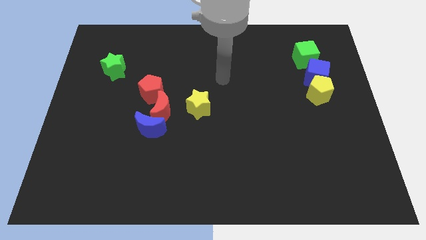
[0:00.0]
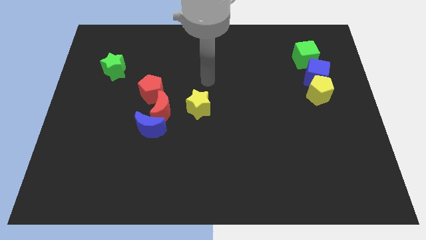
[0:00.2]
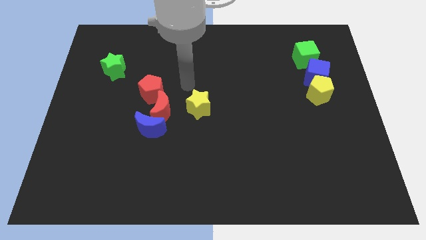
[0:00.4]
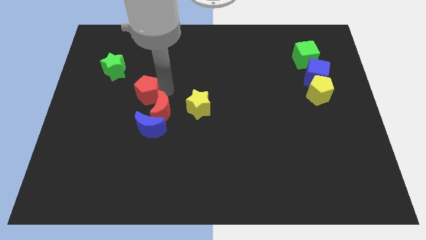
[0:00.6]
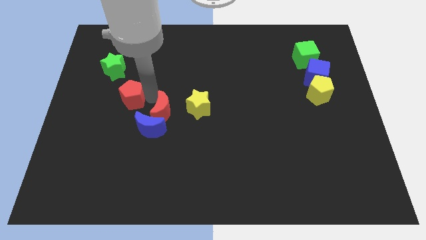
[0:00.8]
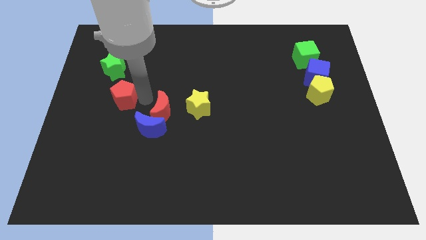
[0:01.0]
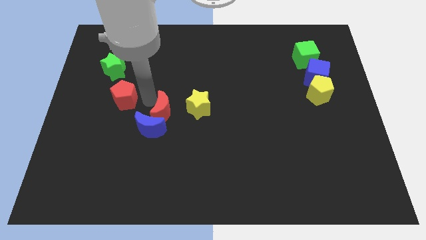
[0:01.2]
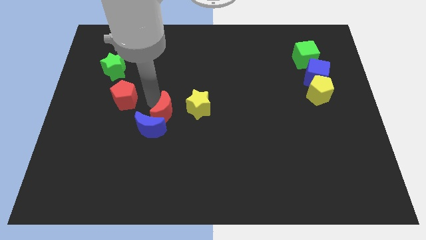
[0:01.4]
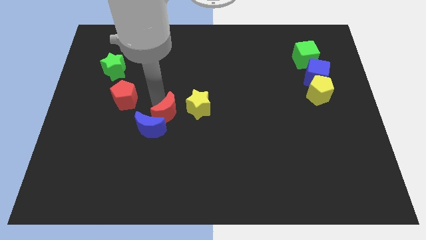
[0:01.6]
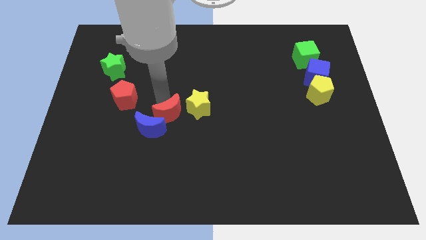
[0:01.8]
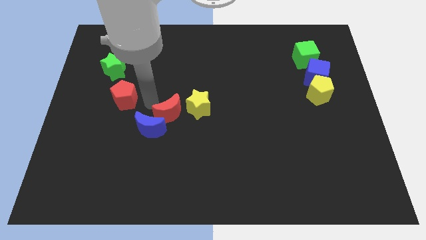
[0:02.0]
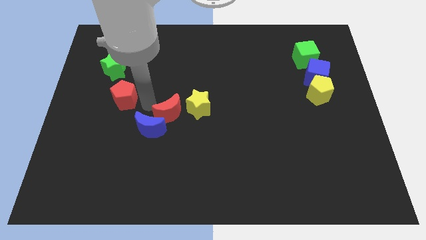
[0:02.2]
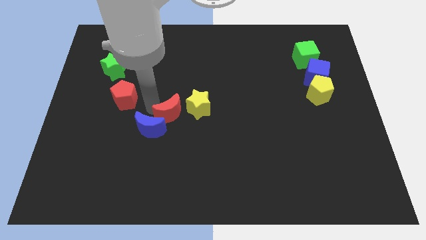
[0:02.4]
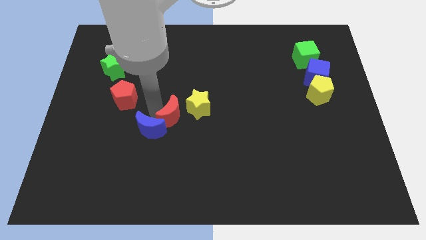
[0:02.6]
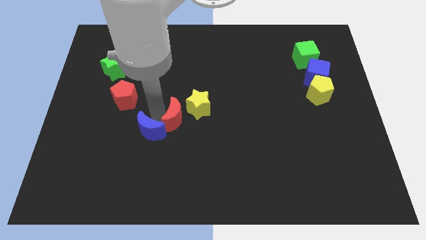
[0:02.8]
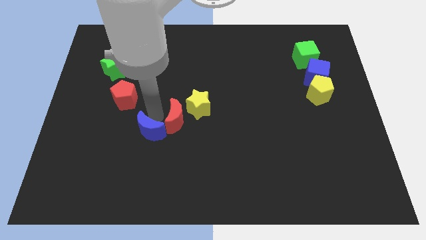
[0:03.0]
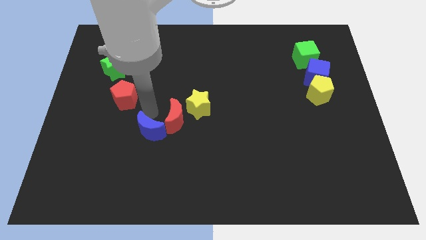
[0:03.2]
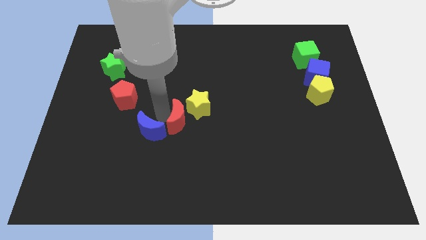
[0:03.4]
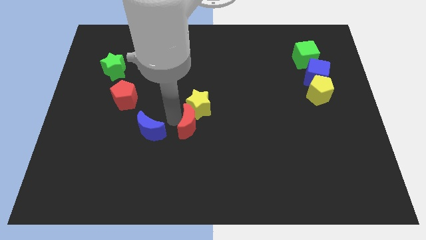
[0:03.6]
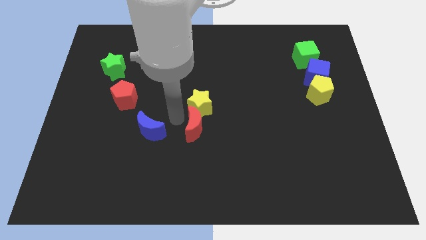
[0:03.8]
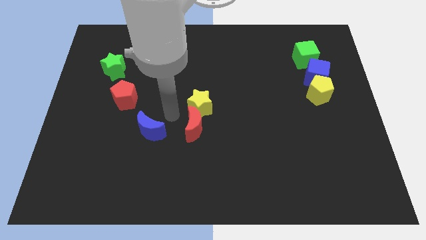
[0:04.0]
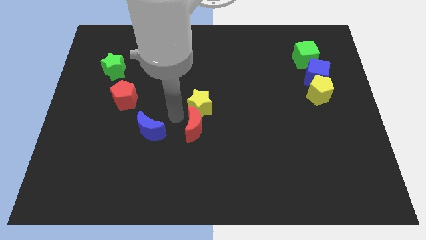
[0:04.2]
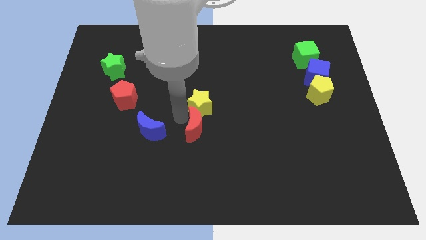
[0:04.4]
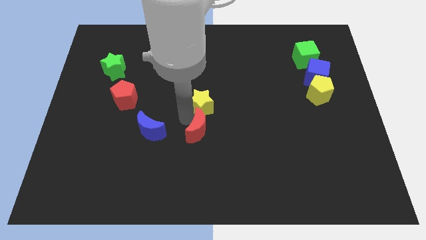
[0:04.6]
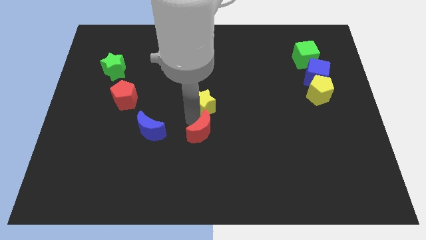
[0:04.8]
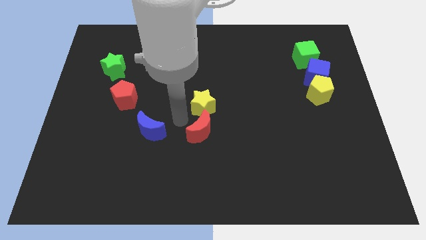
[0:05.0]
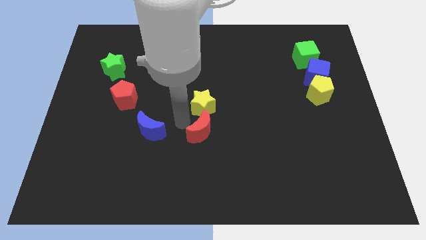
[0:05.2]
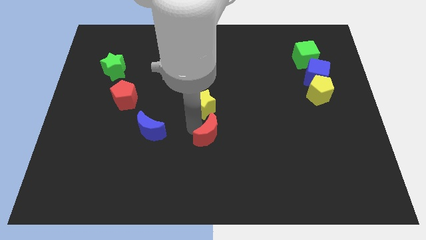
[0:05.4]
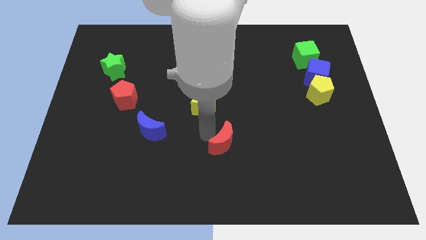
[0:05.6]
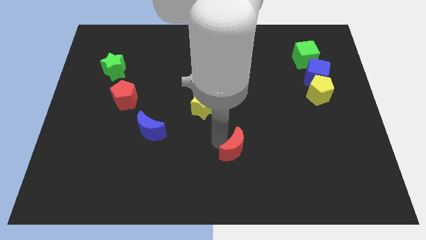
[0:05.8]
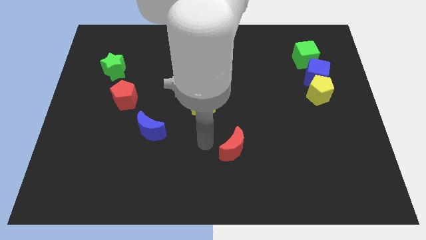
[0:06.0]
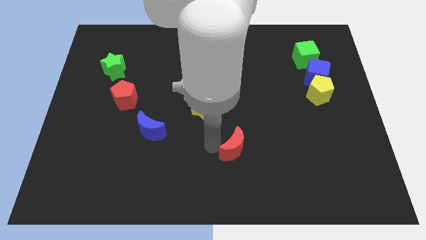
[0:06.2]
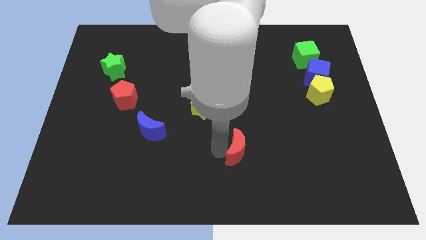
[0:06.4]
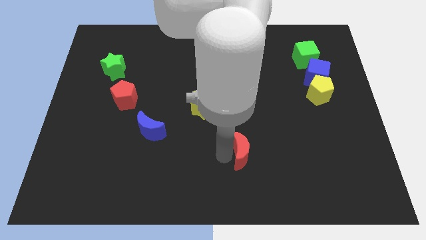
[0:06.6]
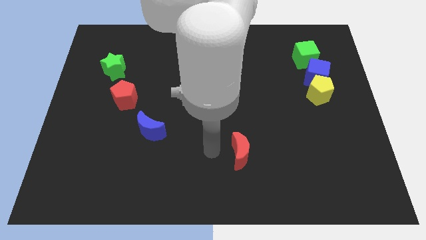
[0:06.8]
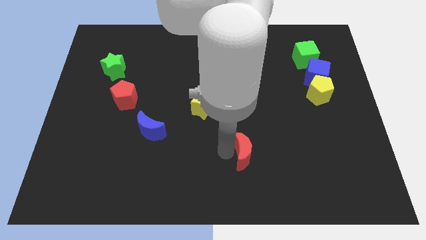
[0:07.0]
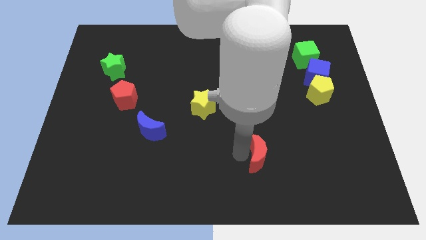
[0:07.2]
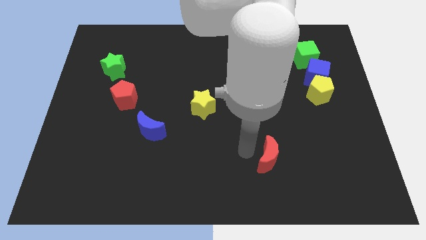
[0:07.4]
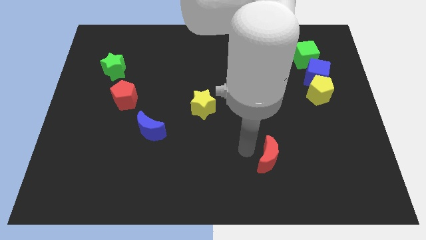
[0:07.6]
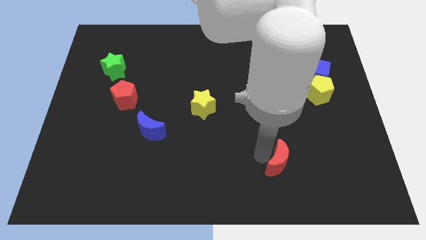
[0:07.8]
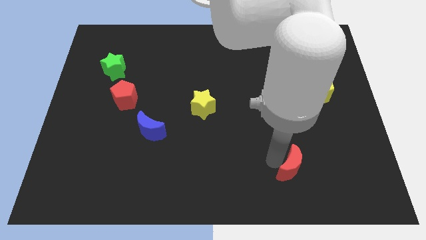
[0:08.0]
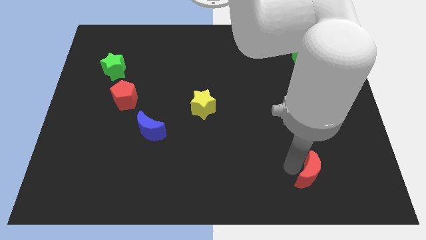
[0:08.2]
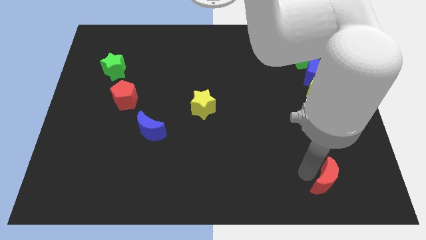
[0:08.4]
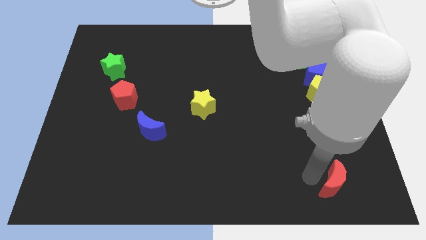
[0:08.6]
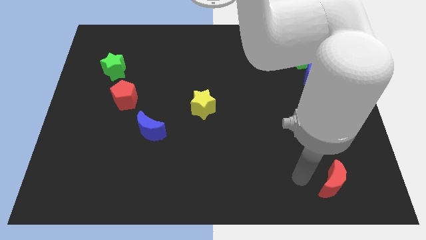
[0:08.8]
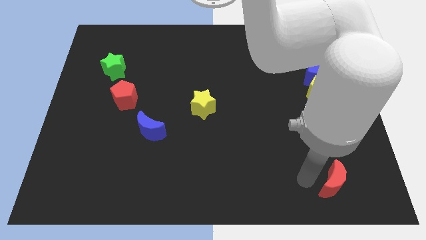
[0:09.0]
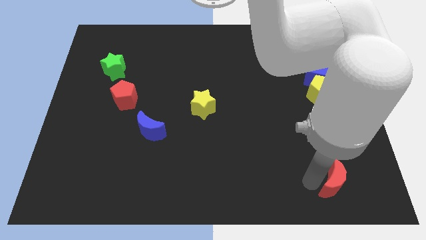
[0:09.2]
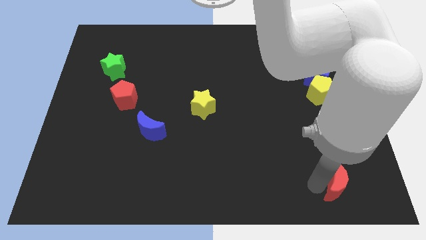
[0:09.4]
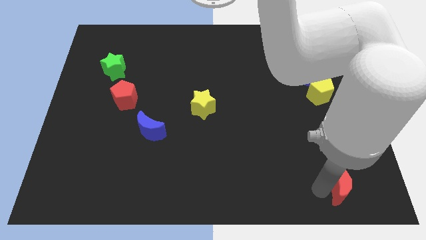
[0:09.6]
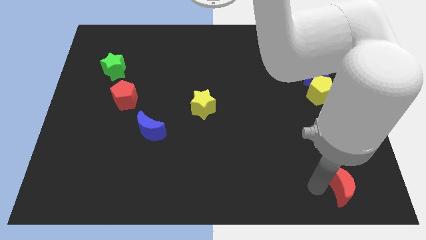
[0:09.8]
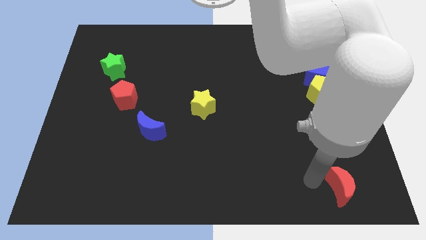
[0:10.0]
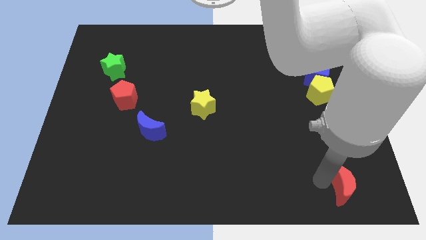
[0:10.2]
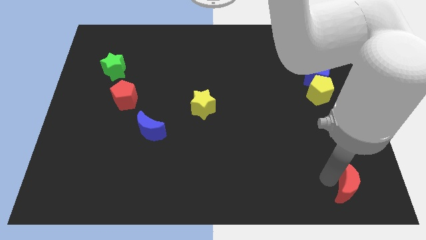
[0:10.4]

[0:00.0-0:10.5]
push the red moon to the bottom right of the board

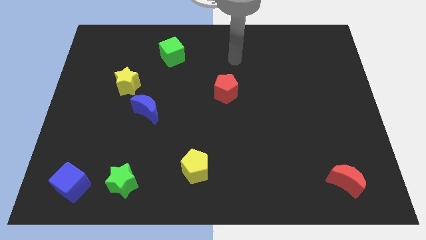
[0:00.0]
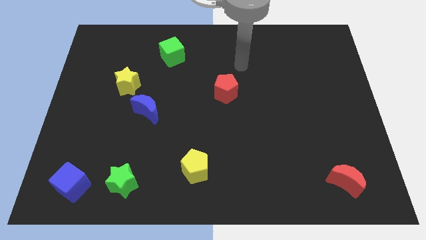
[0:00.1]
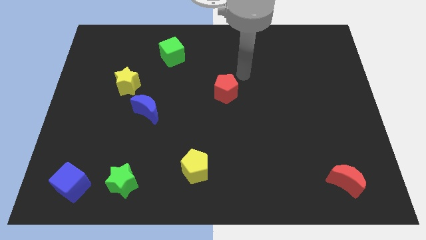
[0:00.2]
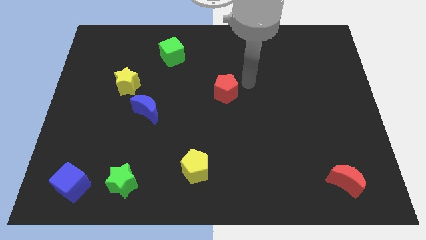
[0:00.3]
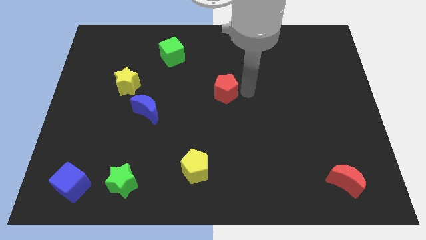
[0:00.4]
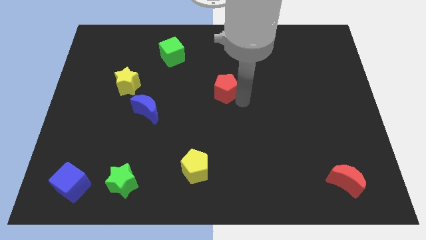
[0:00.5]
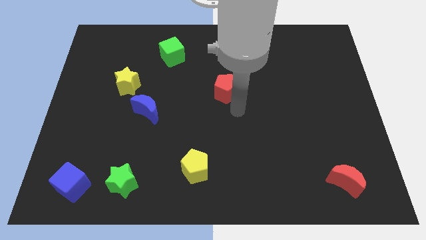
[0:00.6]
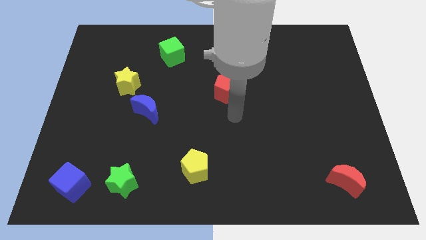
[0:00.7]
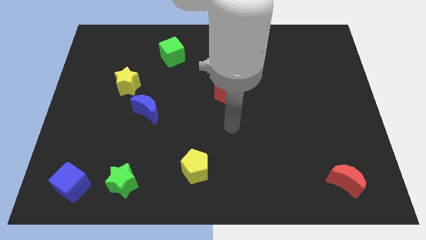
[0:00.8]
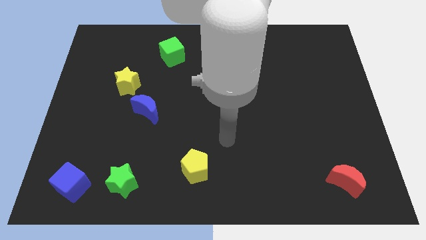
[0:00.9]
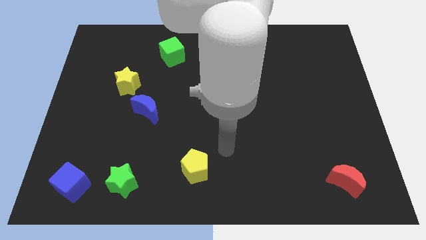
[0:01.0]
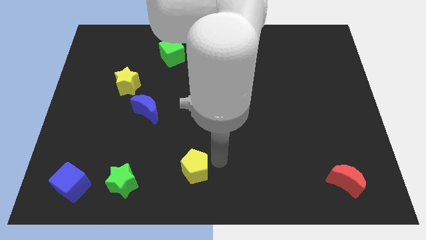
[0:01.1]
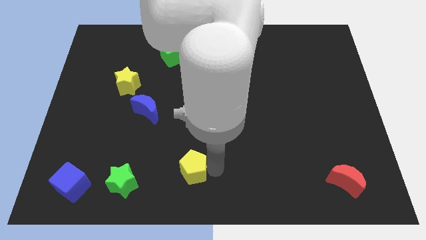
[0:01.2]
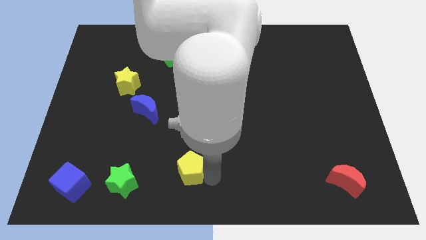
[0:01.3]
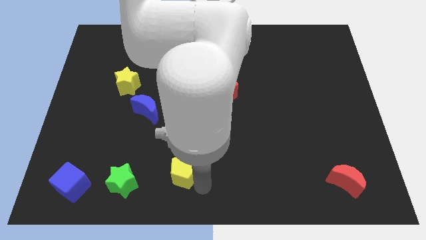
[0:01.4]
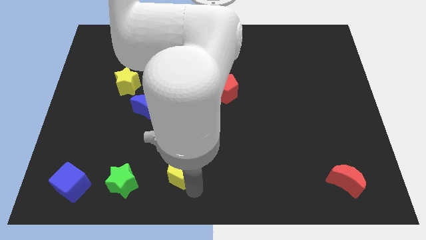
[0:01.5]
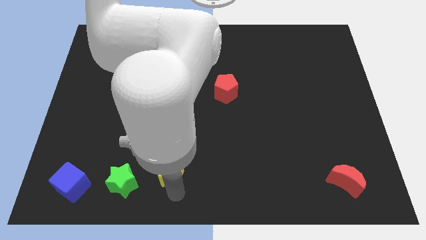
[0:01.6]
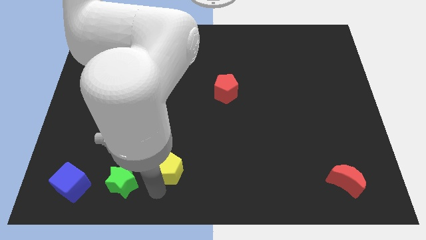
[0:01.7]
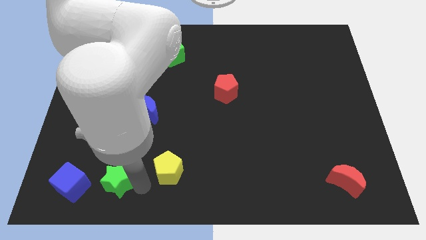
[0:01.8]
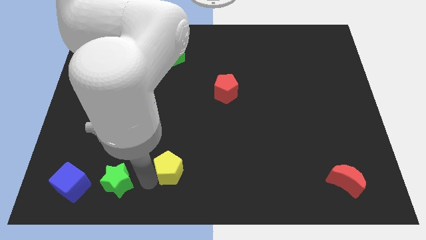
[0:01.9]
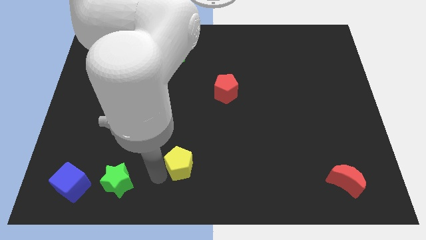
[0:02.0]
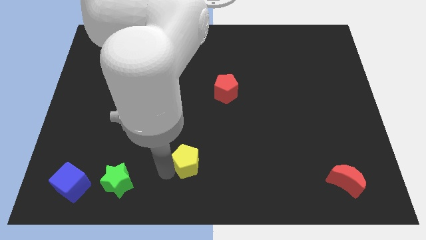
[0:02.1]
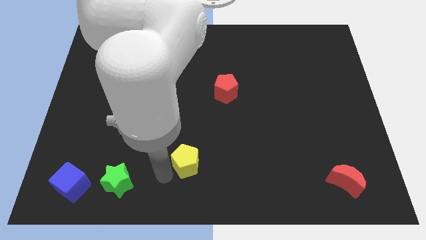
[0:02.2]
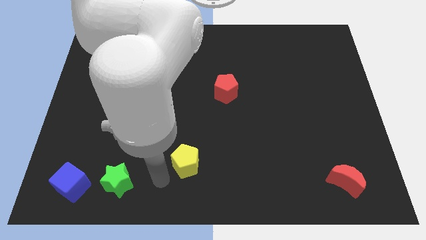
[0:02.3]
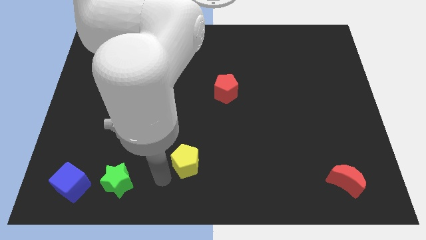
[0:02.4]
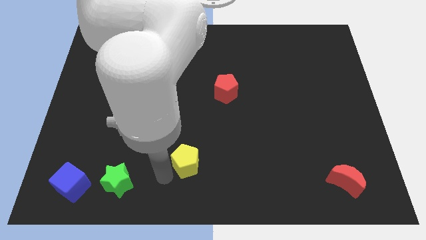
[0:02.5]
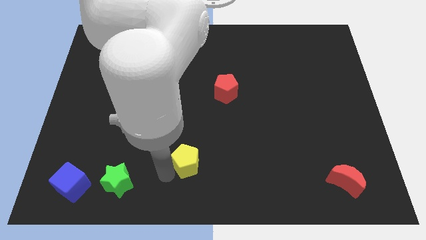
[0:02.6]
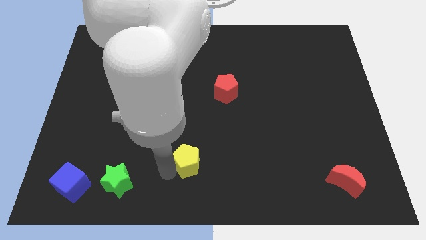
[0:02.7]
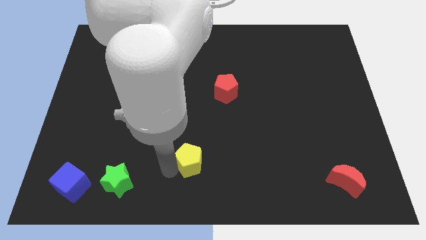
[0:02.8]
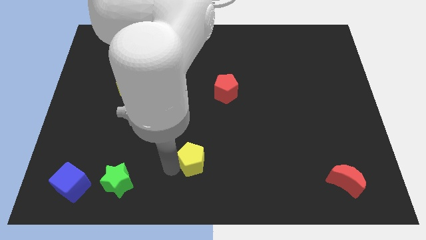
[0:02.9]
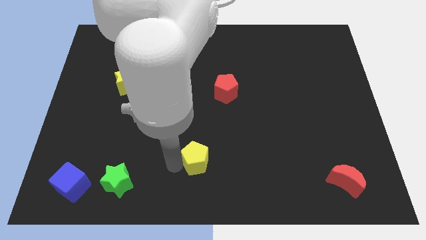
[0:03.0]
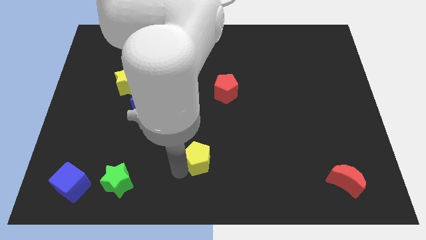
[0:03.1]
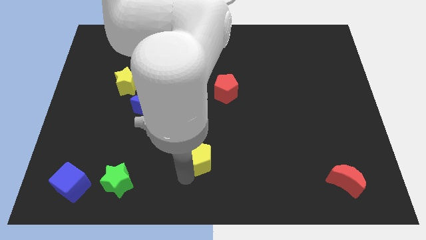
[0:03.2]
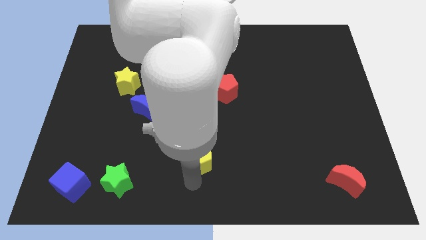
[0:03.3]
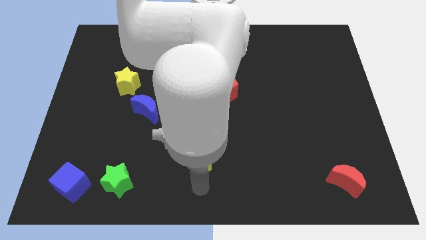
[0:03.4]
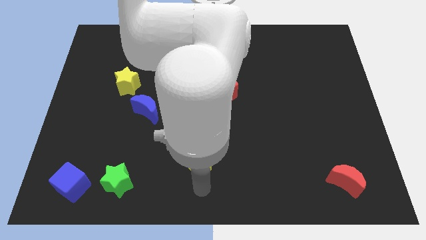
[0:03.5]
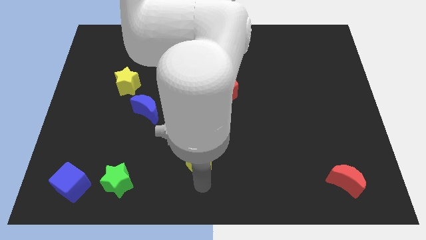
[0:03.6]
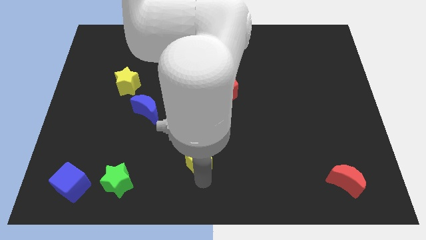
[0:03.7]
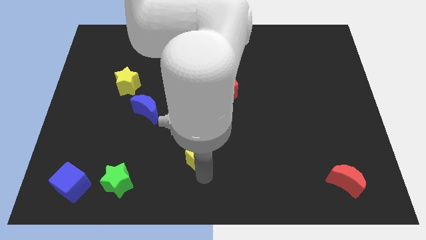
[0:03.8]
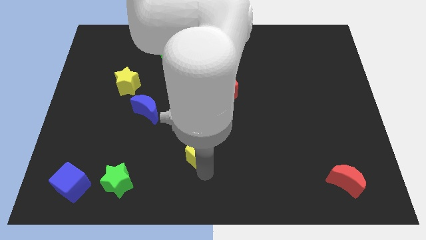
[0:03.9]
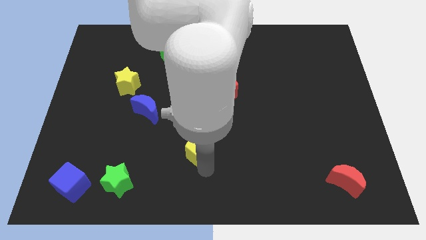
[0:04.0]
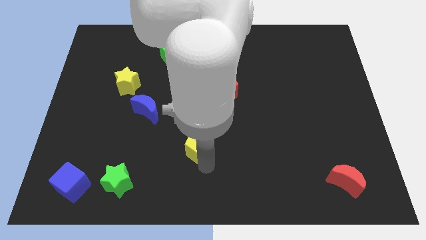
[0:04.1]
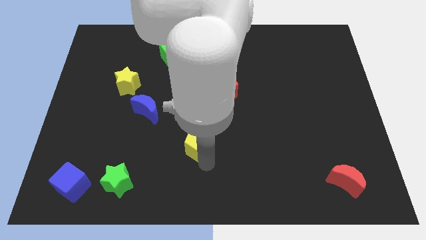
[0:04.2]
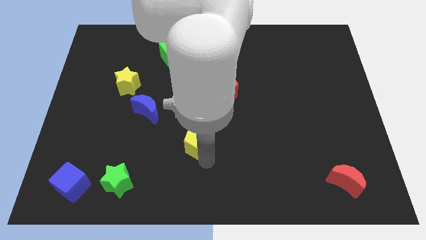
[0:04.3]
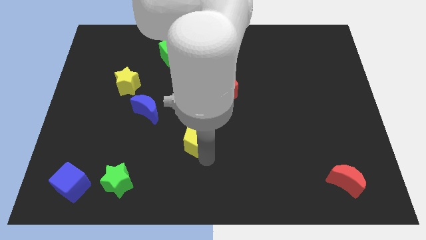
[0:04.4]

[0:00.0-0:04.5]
push the yellow pentagon to the middle of the board
